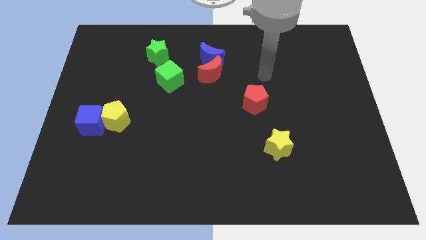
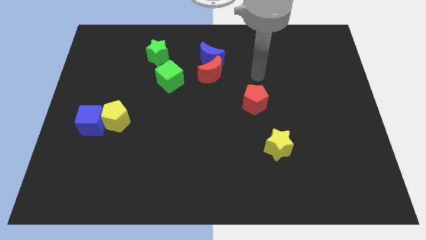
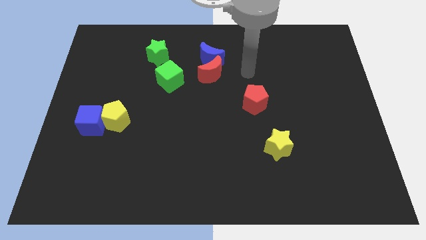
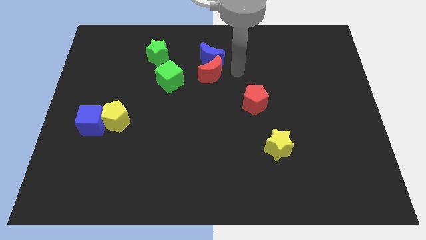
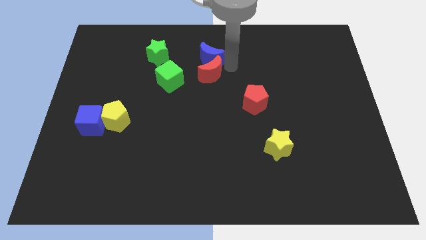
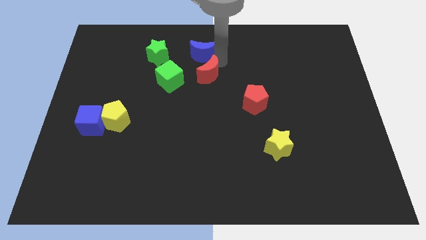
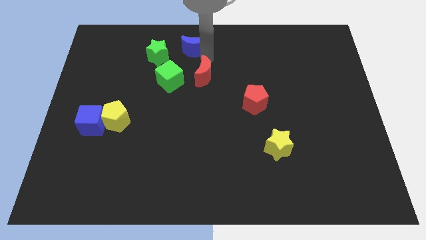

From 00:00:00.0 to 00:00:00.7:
move the red moon away from the blue moon

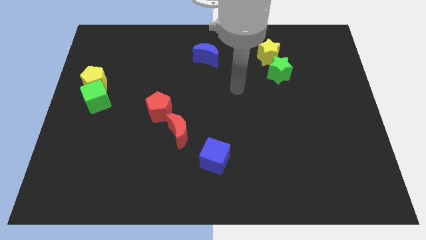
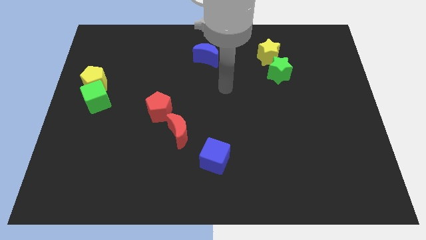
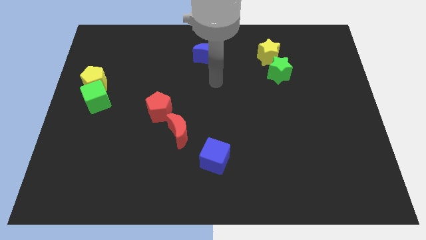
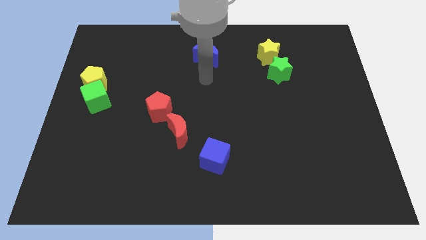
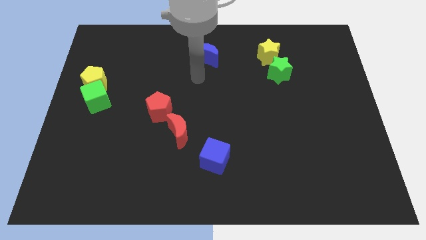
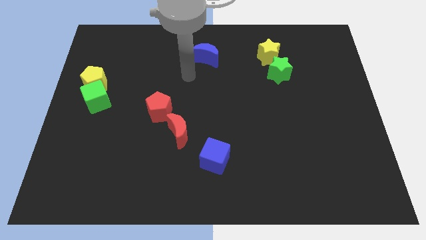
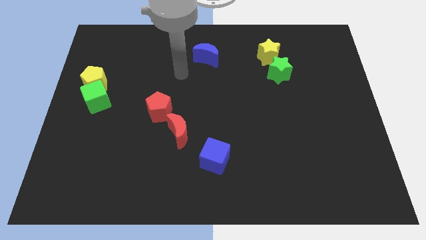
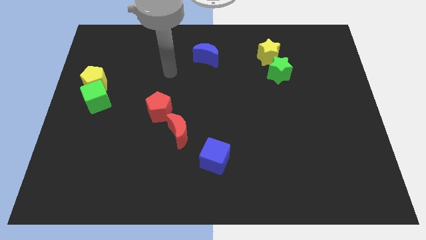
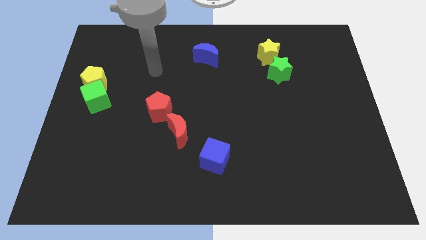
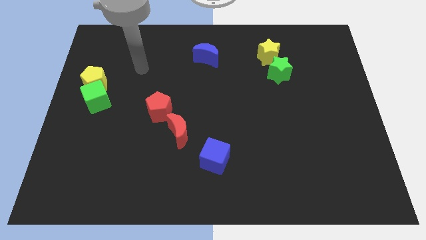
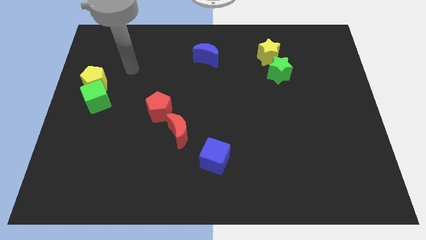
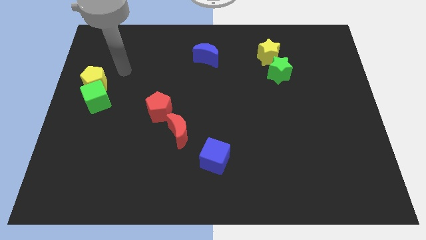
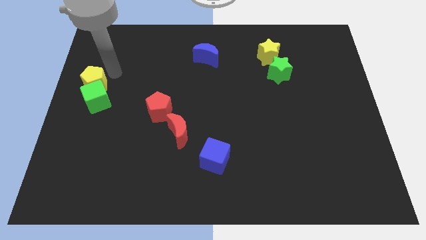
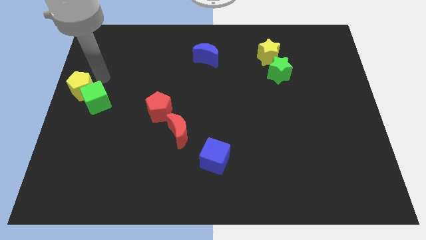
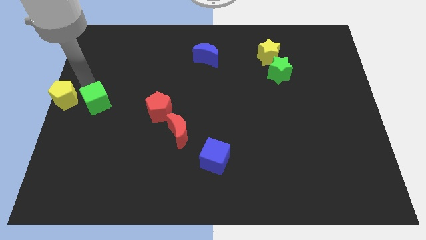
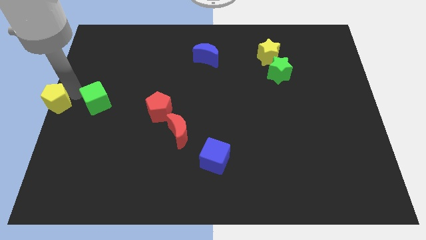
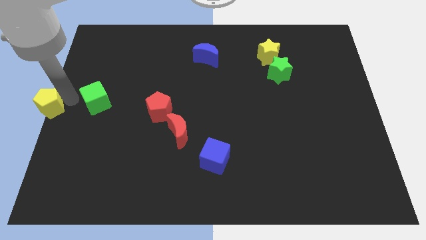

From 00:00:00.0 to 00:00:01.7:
move the green cube away from the yellow pentagon

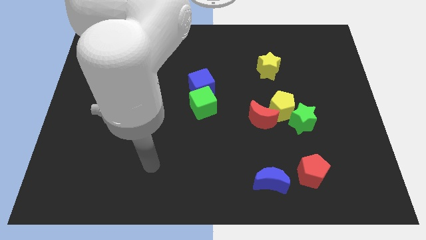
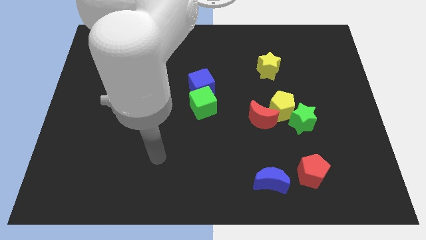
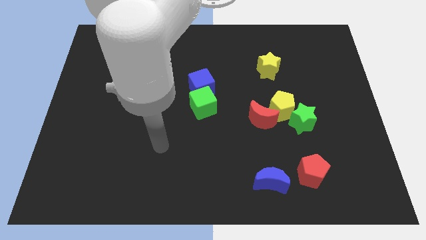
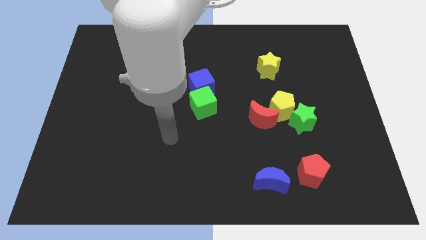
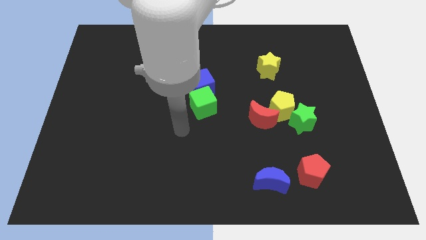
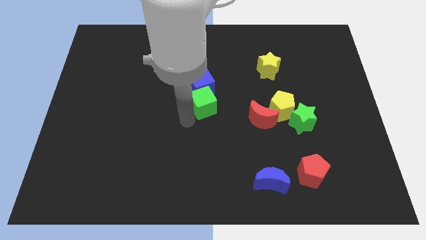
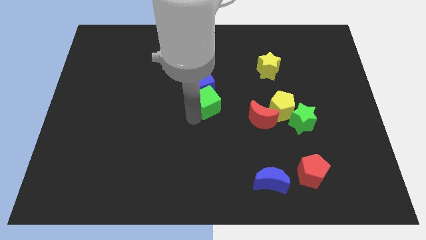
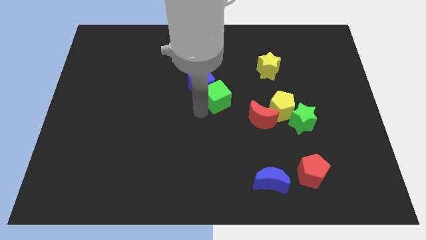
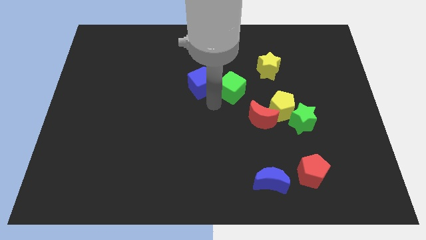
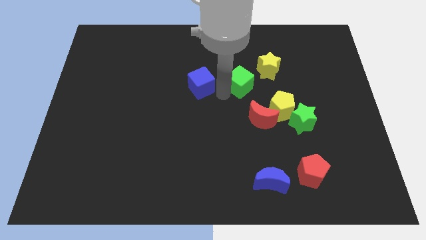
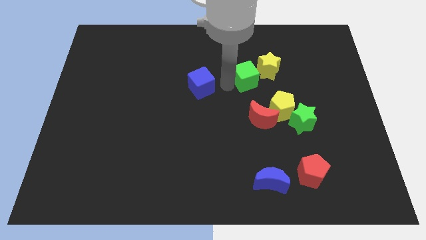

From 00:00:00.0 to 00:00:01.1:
separate the blue cube from the green cube

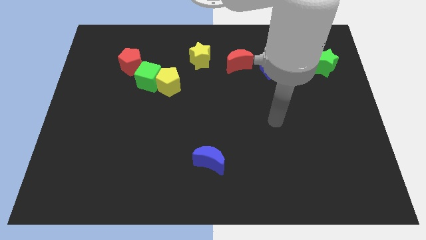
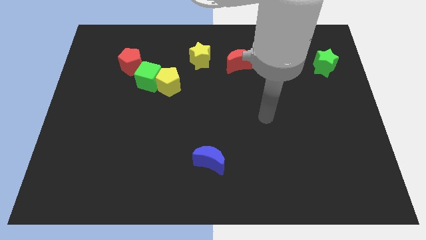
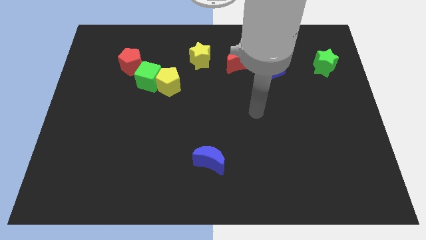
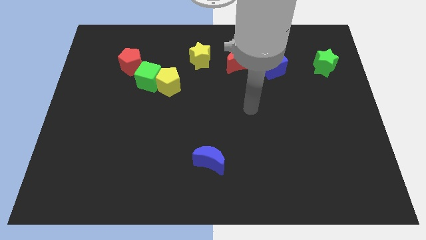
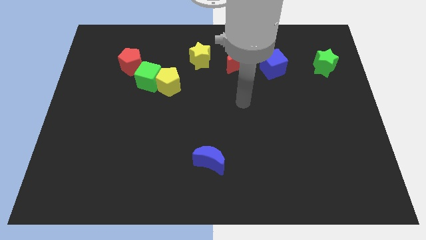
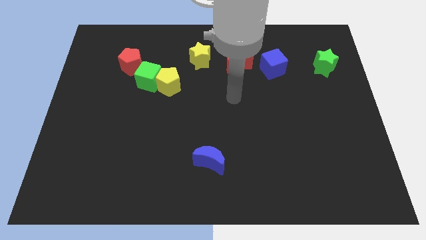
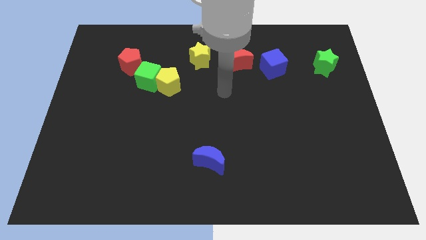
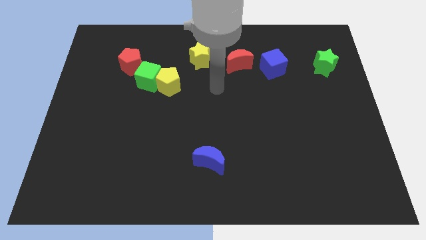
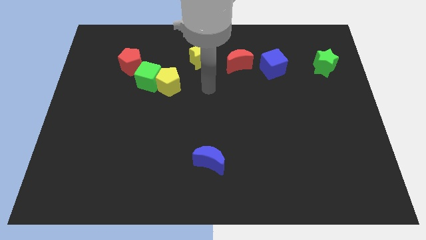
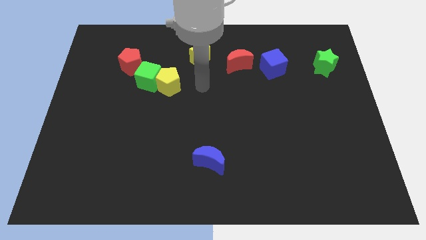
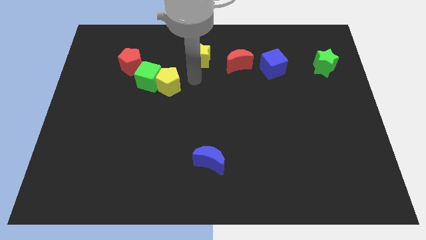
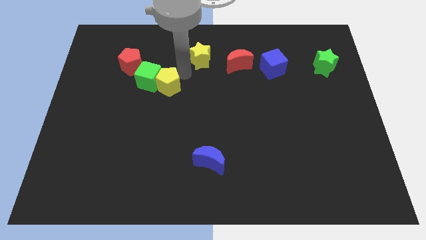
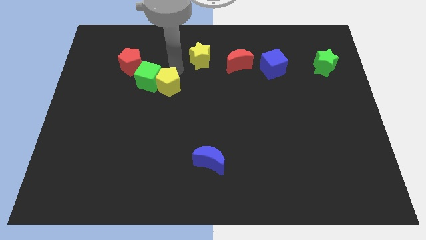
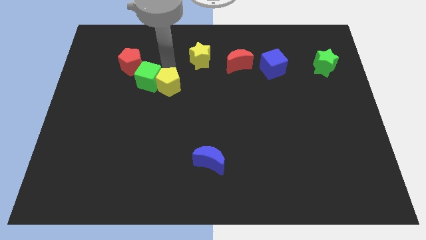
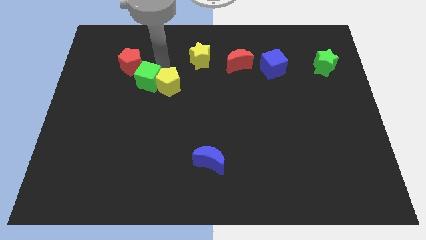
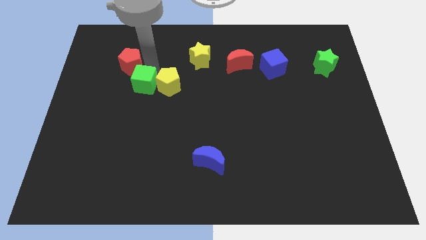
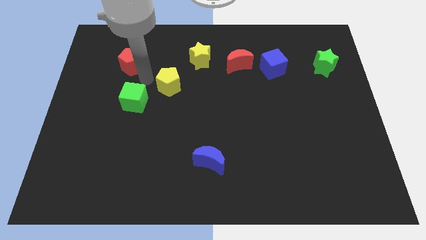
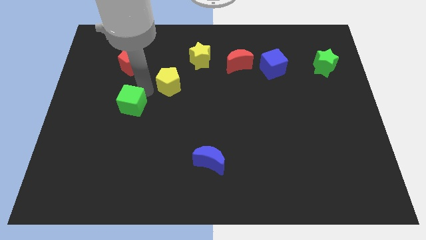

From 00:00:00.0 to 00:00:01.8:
pull the yellow pentagon apart from the green cube

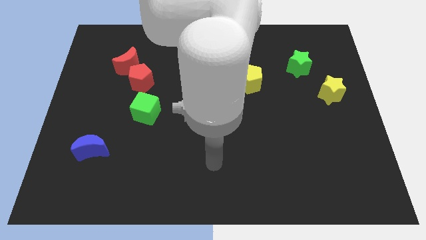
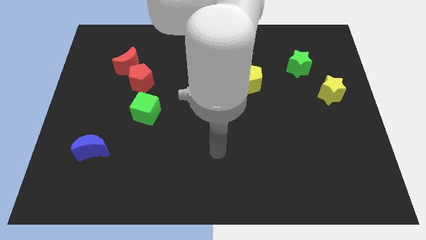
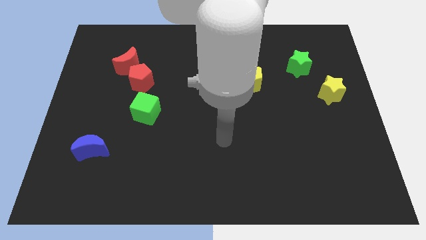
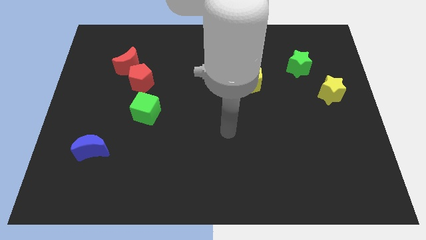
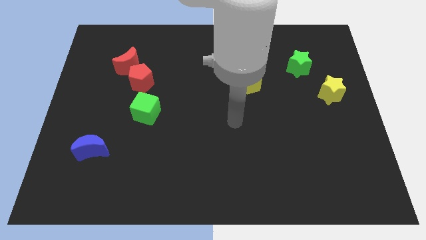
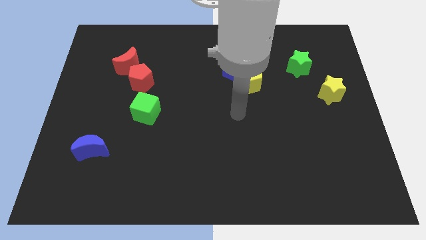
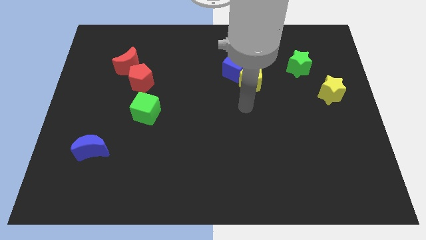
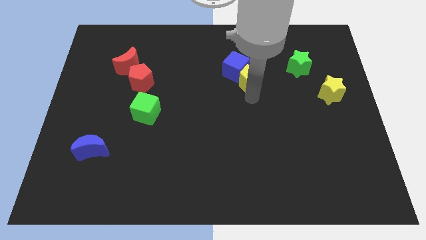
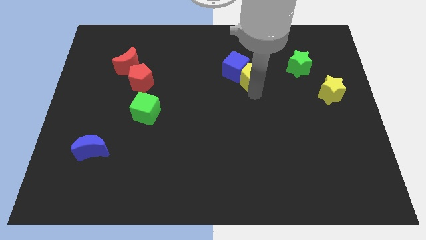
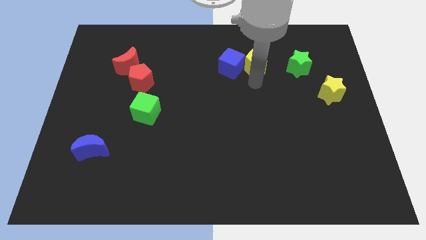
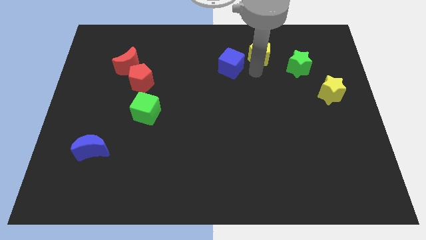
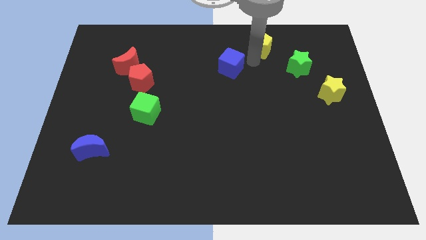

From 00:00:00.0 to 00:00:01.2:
pull the blue cube apart from the yellow pentagon

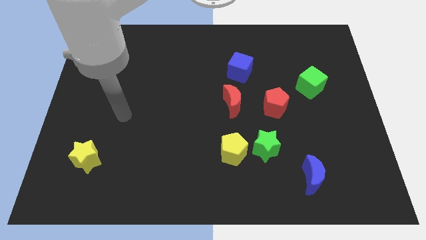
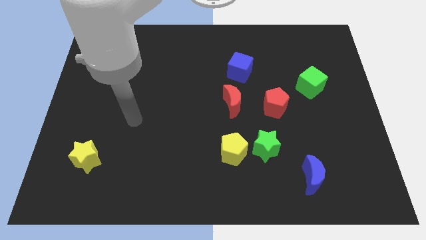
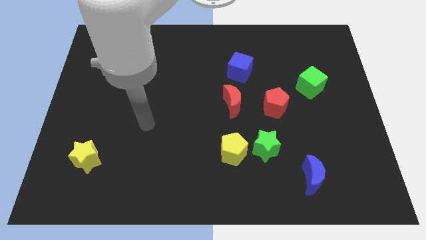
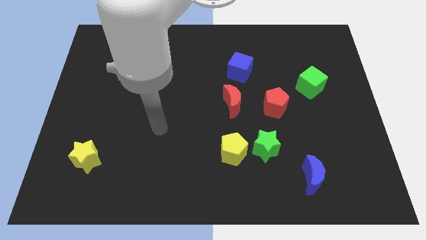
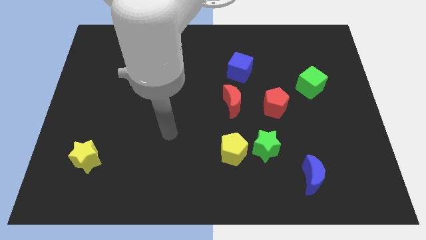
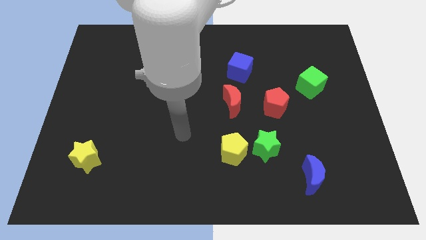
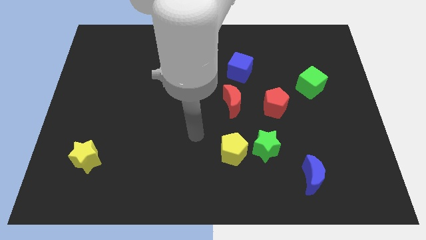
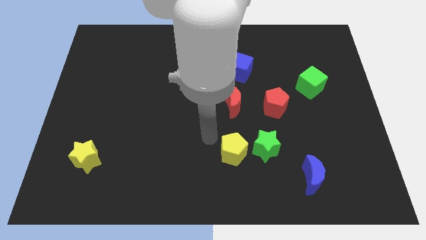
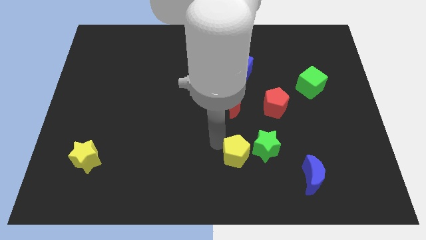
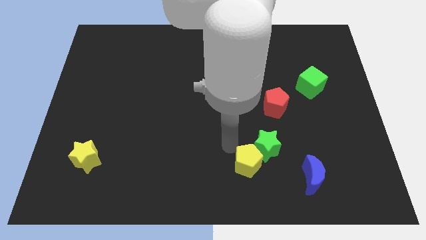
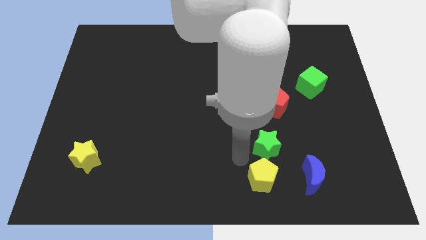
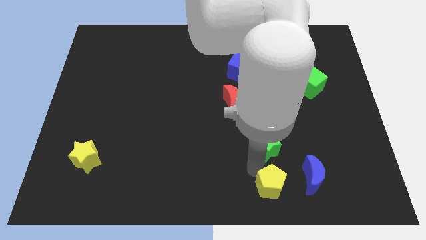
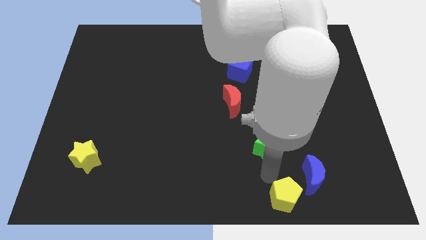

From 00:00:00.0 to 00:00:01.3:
move the green star away from the yellow pentagon

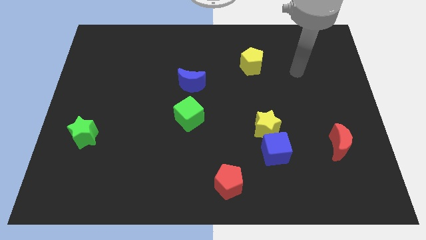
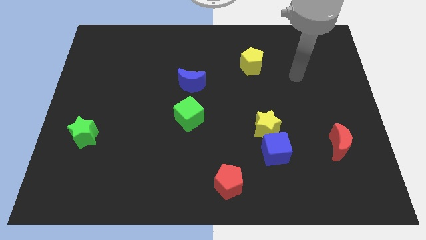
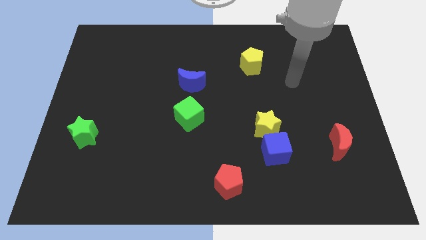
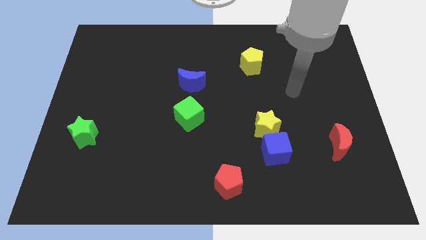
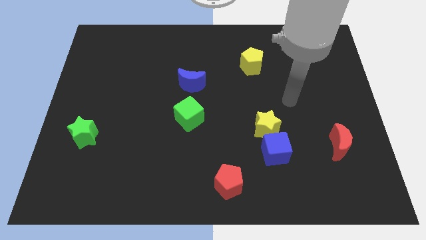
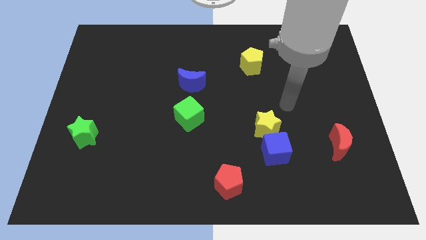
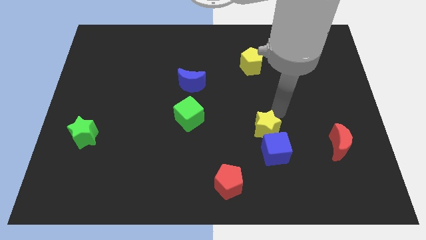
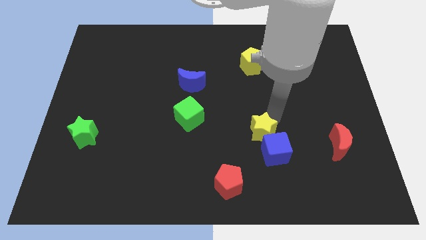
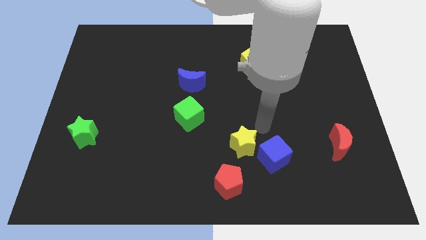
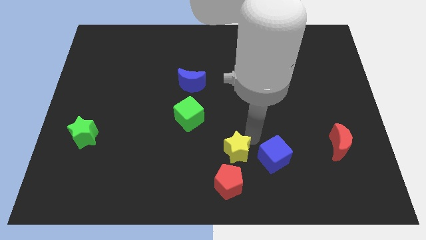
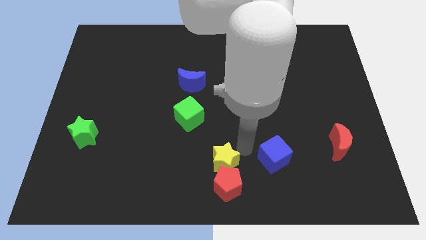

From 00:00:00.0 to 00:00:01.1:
pull the blue cube apart from the yellow star

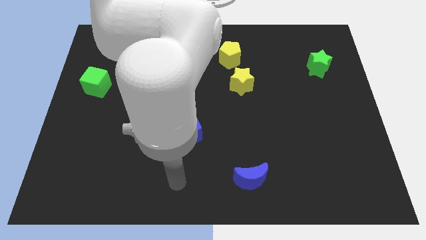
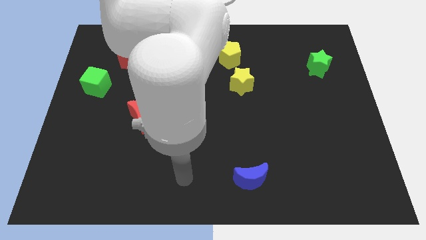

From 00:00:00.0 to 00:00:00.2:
pull the yellow star apart from the yellow pentagon

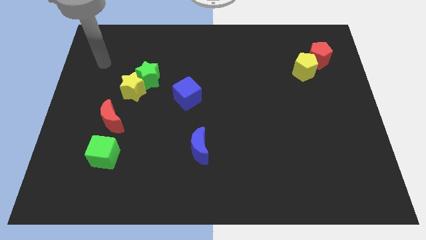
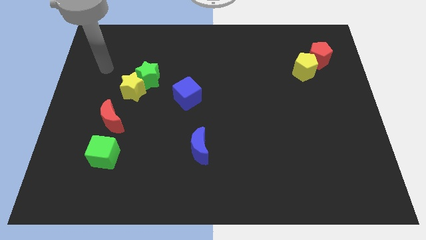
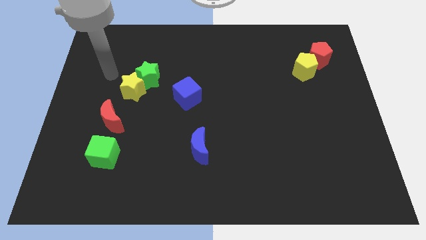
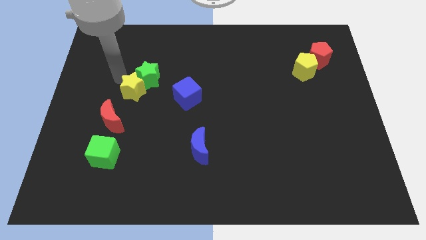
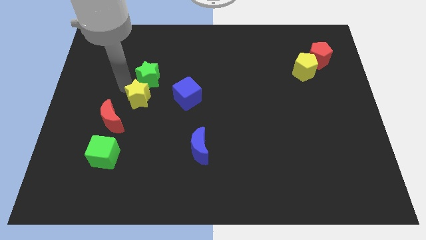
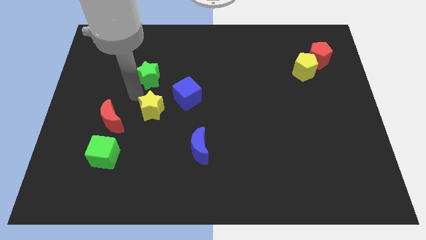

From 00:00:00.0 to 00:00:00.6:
move the green star away from the yellow star
